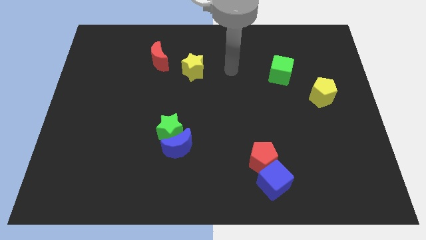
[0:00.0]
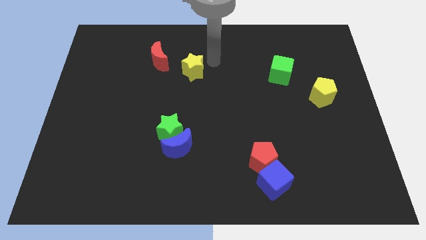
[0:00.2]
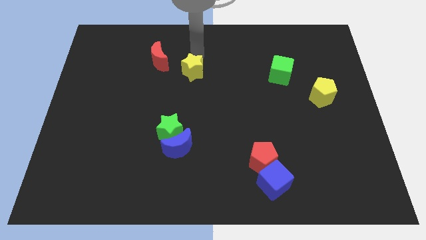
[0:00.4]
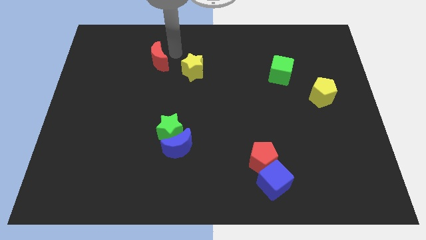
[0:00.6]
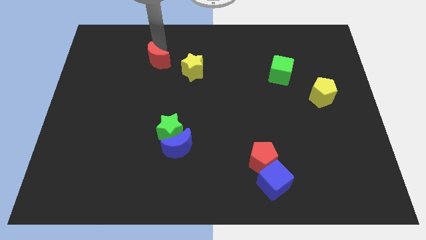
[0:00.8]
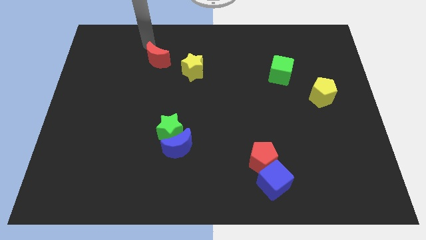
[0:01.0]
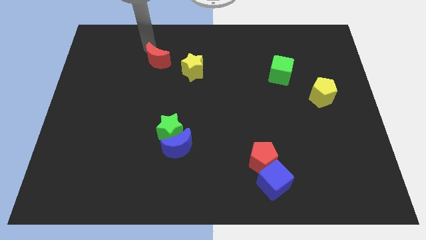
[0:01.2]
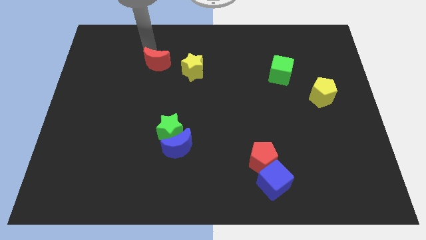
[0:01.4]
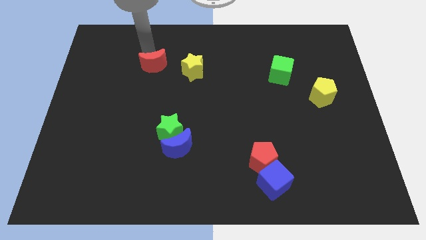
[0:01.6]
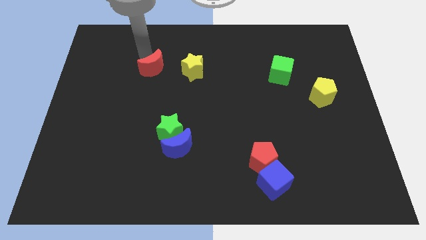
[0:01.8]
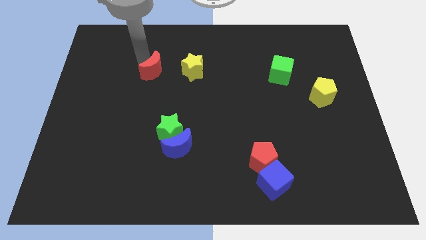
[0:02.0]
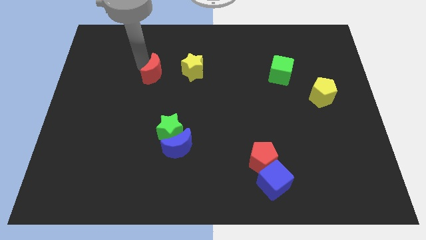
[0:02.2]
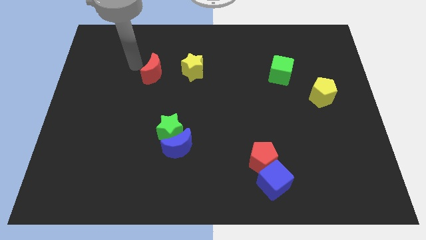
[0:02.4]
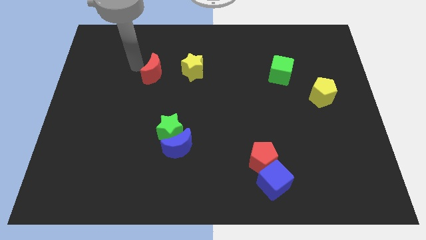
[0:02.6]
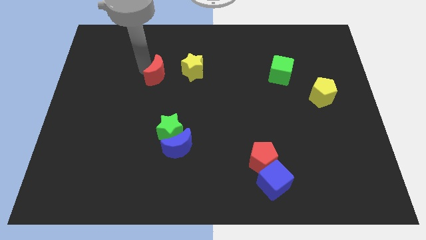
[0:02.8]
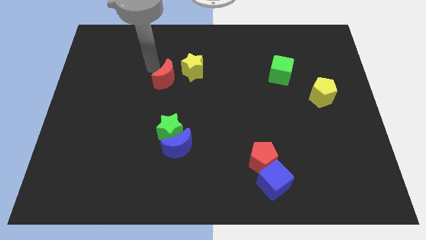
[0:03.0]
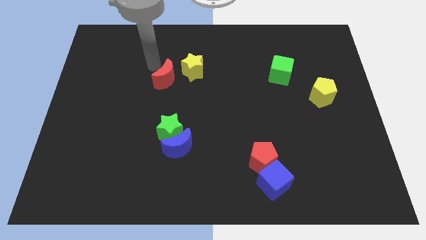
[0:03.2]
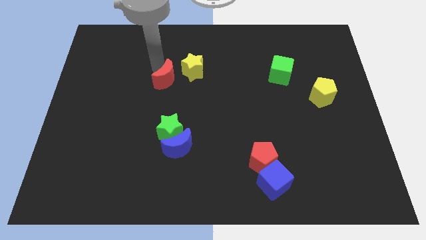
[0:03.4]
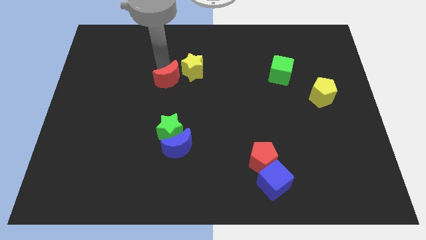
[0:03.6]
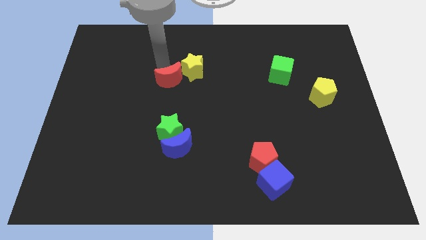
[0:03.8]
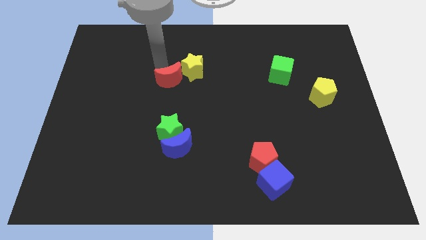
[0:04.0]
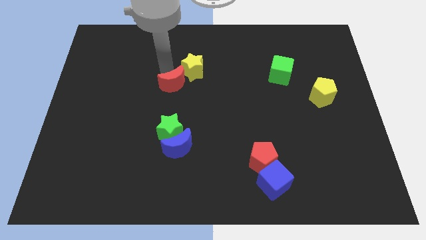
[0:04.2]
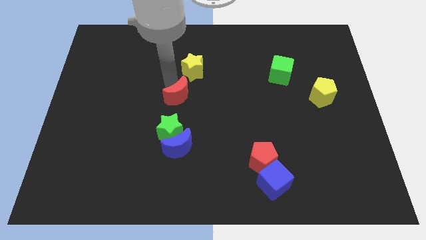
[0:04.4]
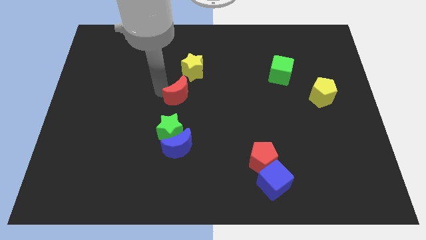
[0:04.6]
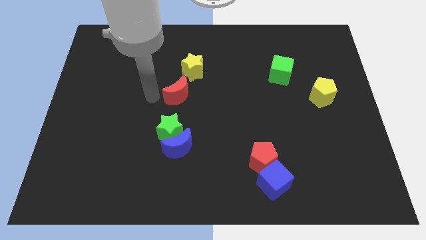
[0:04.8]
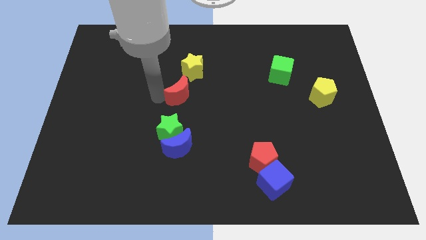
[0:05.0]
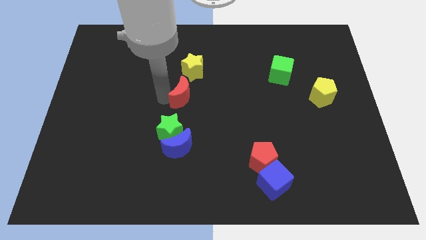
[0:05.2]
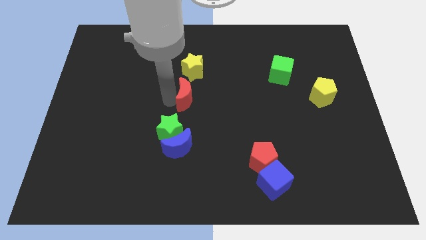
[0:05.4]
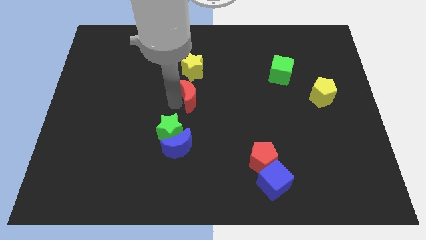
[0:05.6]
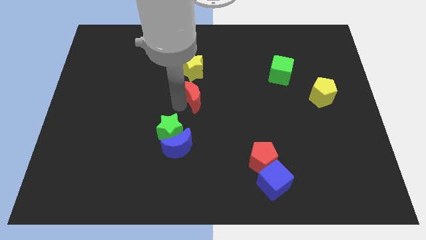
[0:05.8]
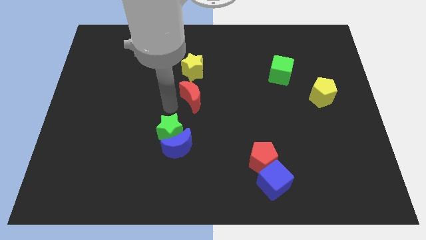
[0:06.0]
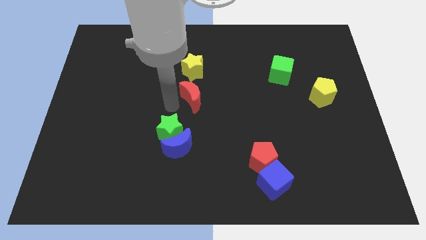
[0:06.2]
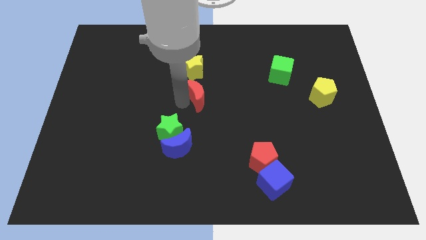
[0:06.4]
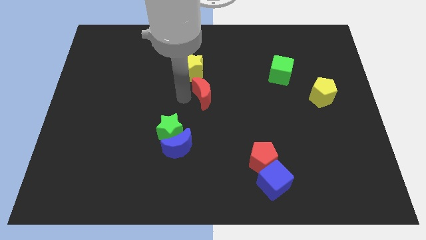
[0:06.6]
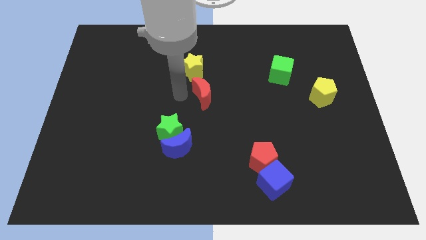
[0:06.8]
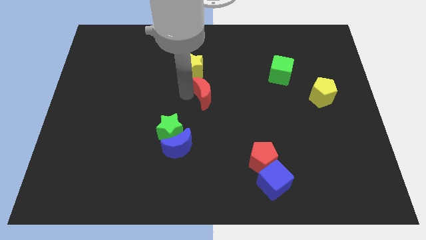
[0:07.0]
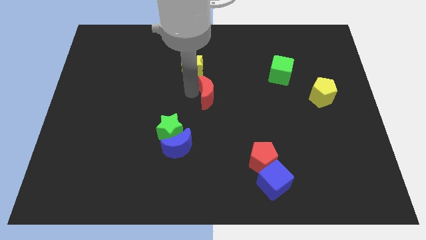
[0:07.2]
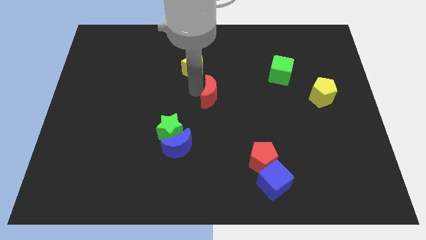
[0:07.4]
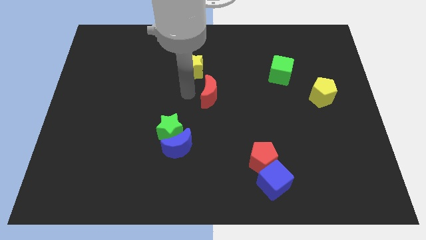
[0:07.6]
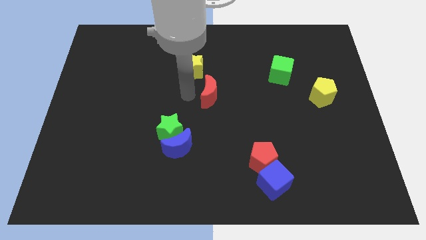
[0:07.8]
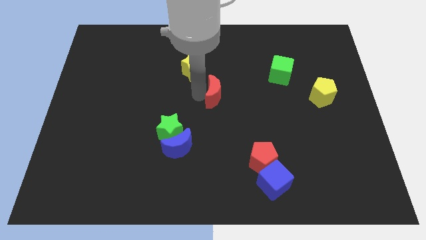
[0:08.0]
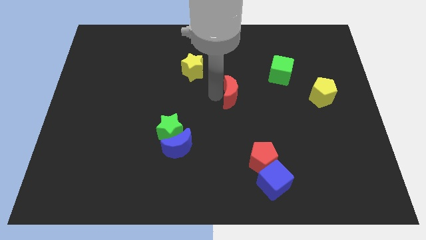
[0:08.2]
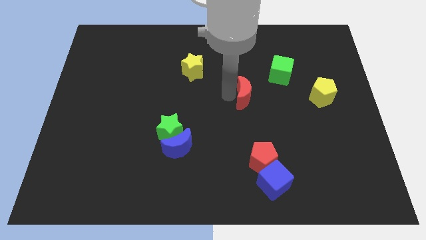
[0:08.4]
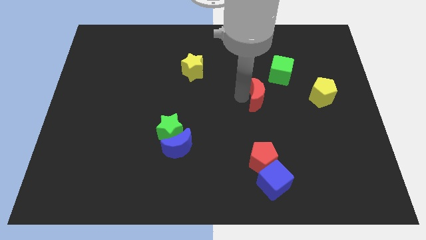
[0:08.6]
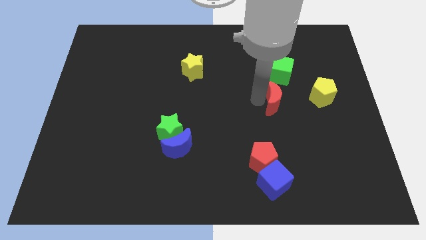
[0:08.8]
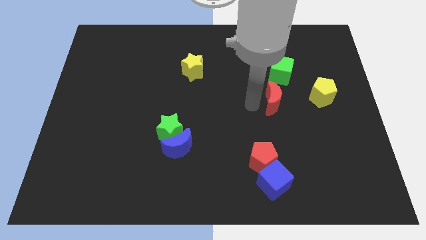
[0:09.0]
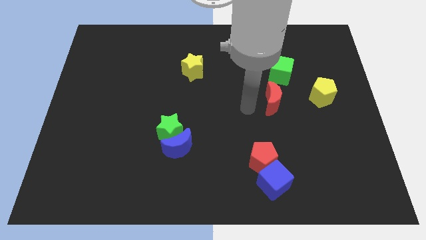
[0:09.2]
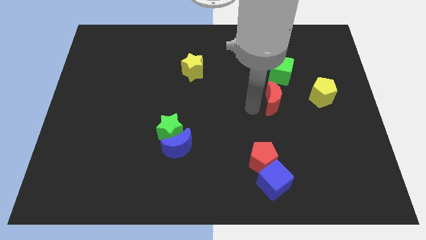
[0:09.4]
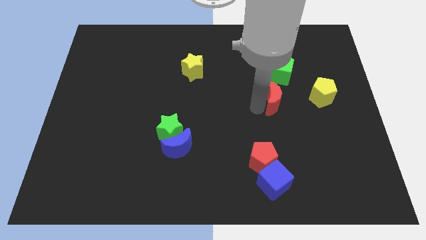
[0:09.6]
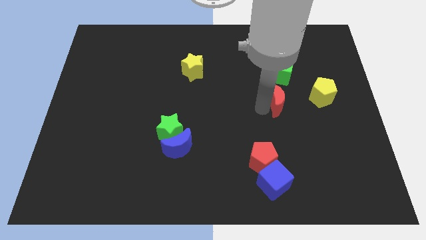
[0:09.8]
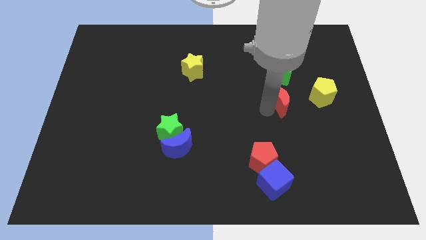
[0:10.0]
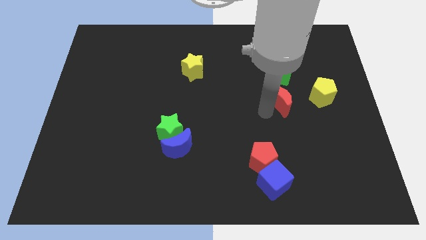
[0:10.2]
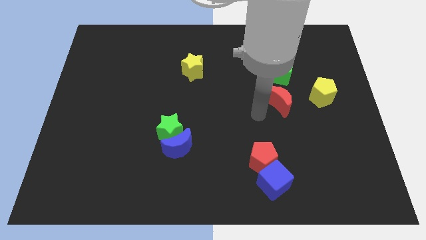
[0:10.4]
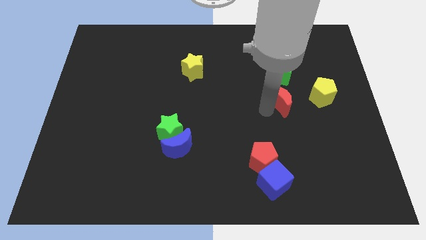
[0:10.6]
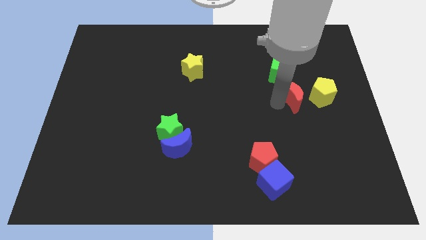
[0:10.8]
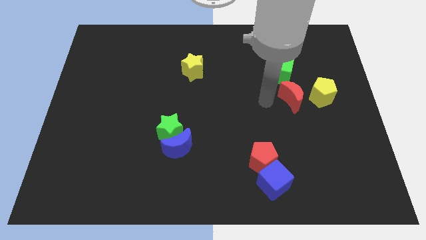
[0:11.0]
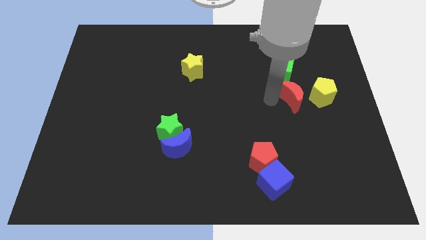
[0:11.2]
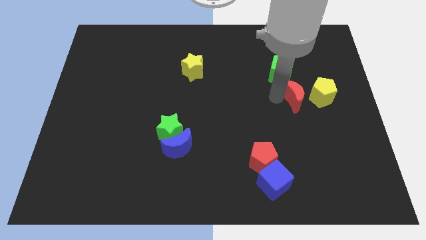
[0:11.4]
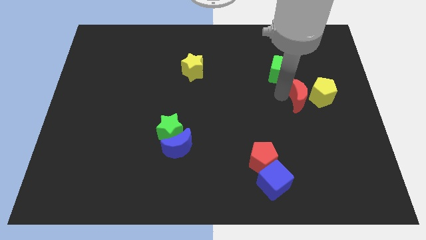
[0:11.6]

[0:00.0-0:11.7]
move the red moon to the yellow pentagon

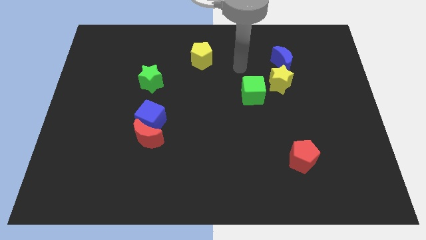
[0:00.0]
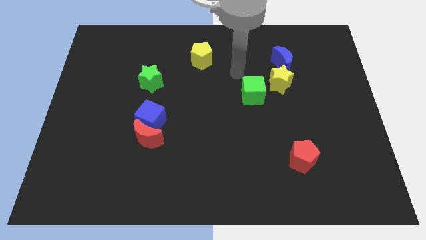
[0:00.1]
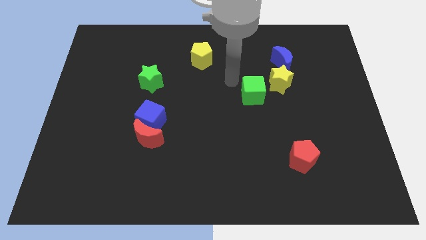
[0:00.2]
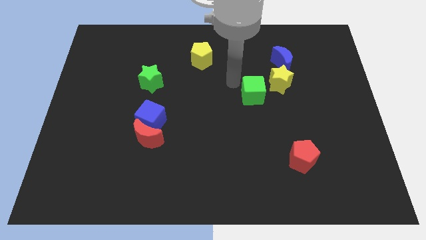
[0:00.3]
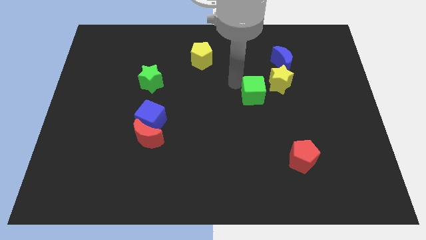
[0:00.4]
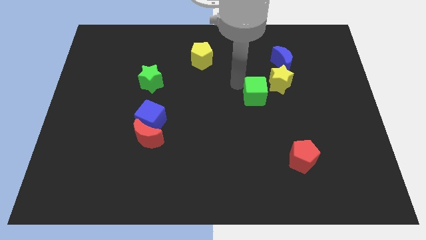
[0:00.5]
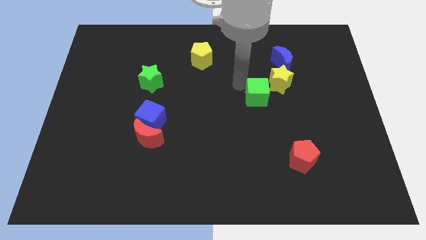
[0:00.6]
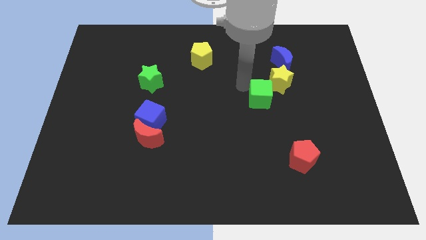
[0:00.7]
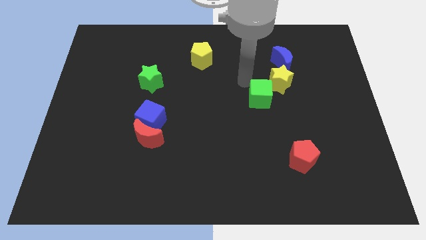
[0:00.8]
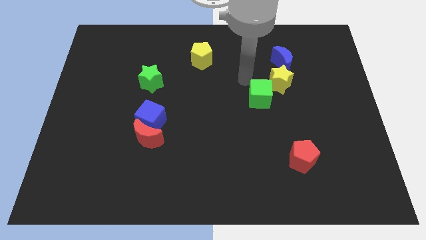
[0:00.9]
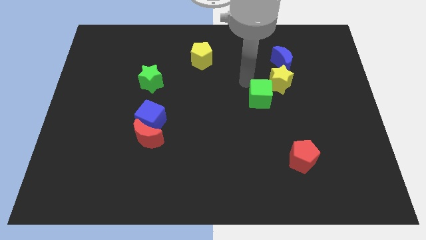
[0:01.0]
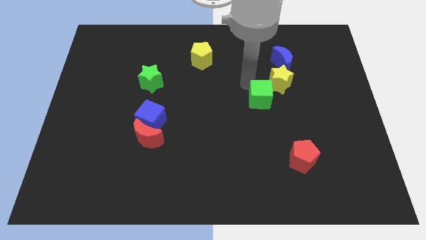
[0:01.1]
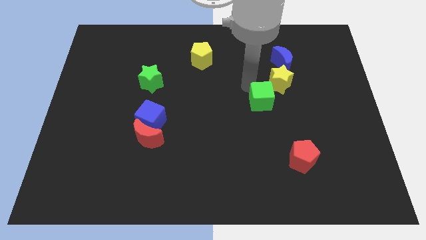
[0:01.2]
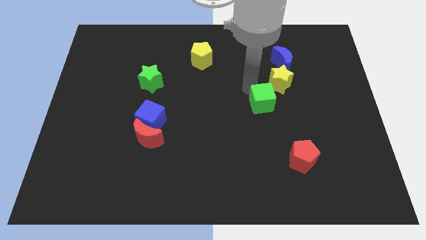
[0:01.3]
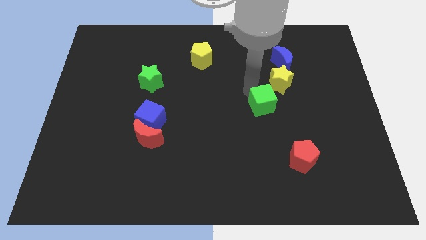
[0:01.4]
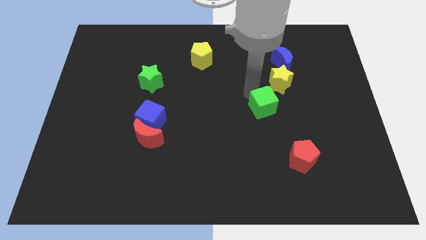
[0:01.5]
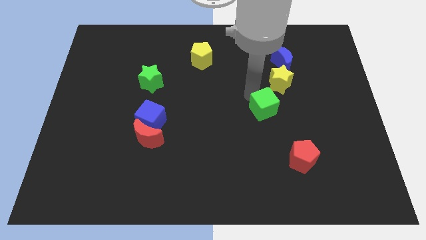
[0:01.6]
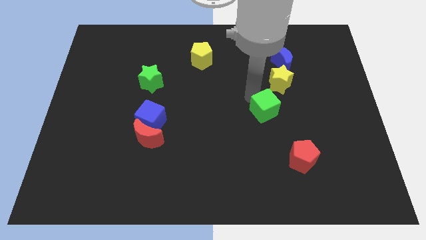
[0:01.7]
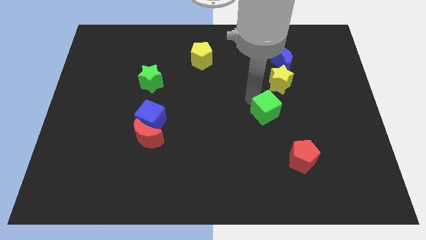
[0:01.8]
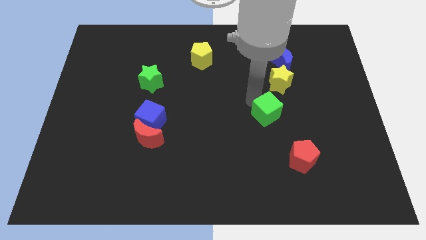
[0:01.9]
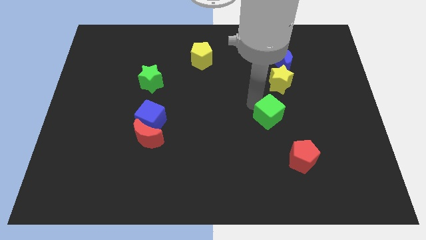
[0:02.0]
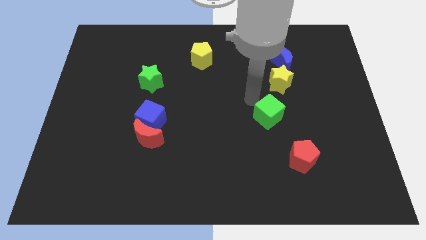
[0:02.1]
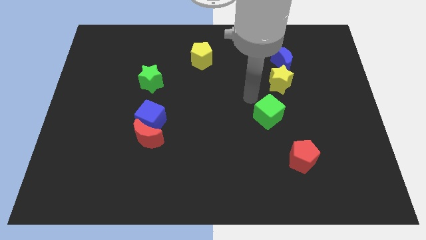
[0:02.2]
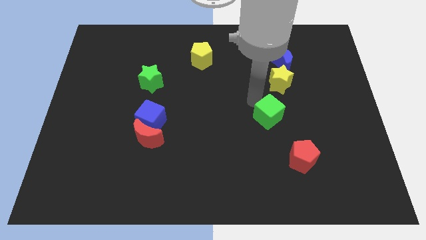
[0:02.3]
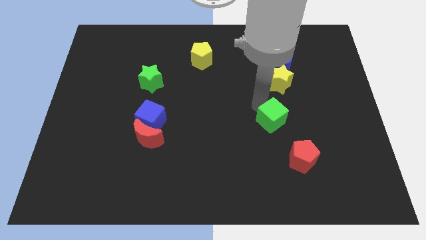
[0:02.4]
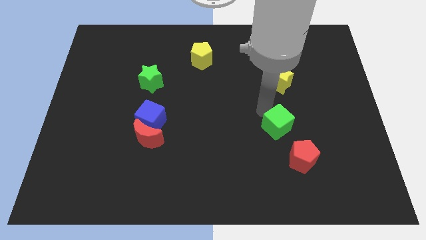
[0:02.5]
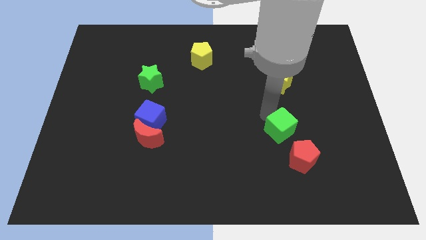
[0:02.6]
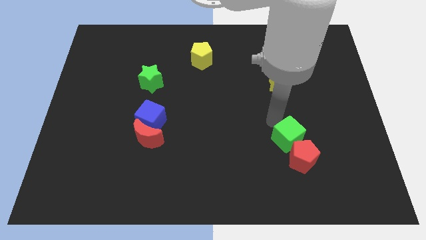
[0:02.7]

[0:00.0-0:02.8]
put the green cube towards the red pentagon
